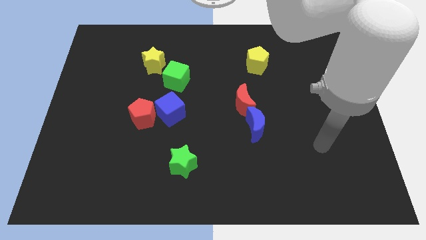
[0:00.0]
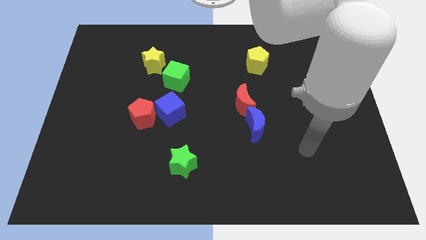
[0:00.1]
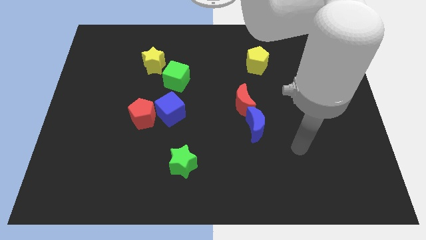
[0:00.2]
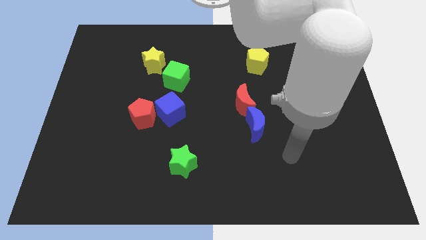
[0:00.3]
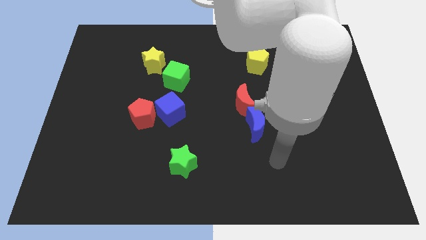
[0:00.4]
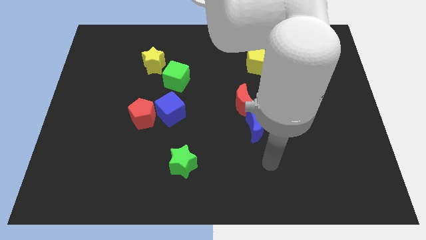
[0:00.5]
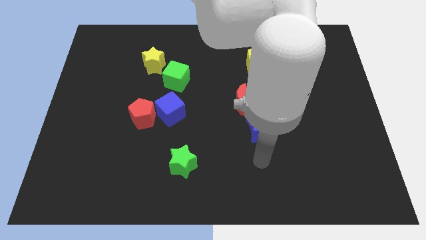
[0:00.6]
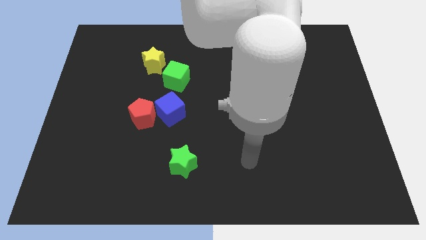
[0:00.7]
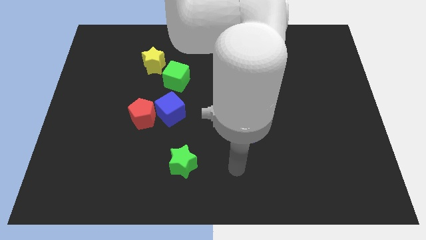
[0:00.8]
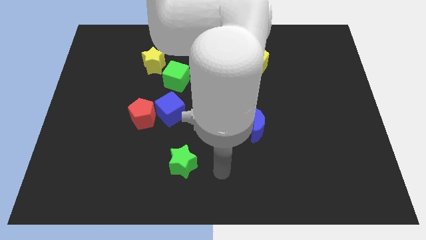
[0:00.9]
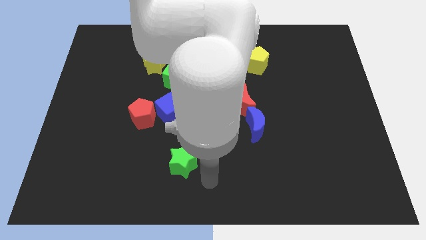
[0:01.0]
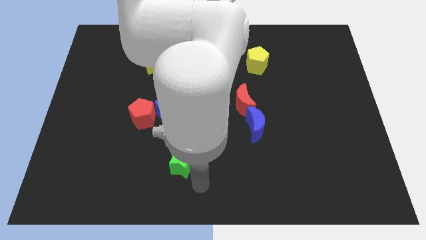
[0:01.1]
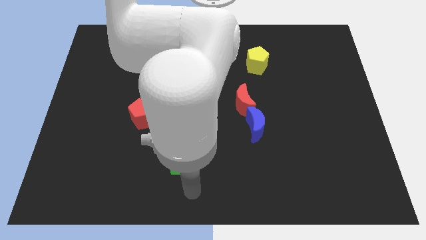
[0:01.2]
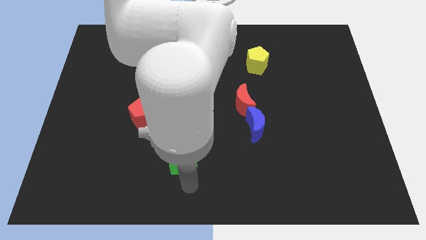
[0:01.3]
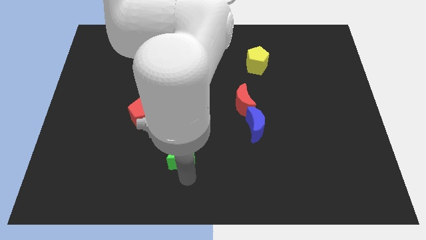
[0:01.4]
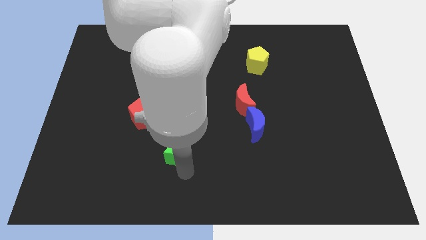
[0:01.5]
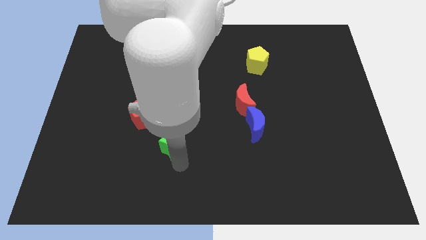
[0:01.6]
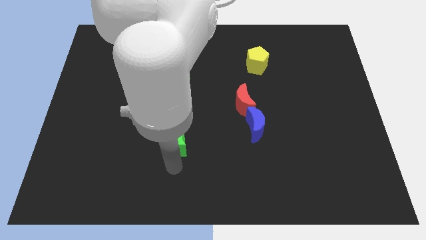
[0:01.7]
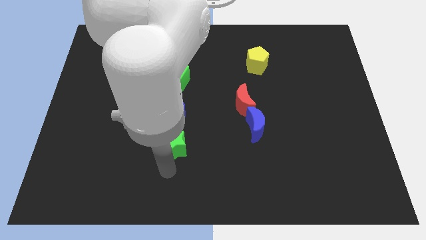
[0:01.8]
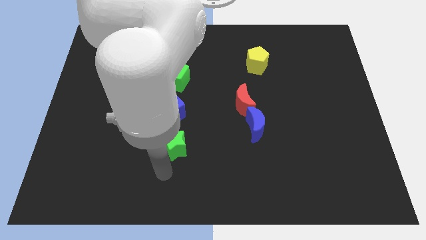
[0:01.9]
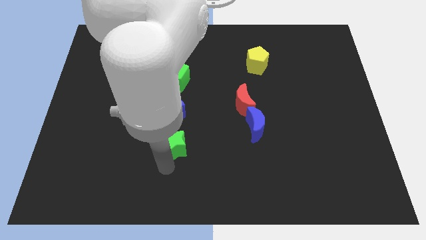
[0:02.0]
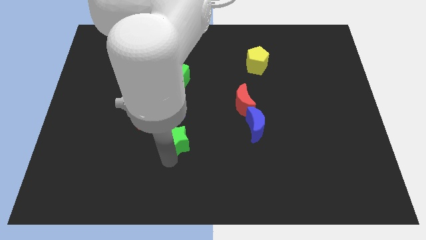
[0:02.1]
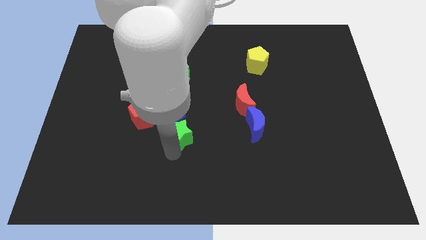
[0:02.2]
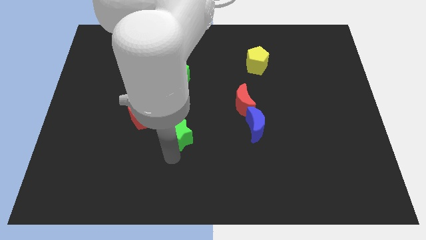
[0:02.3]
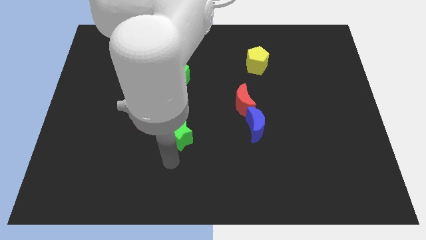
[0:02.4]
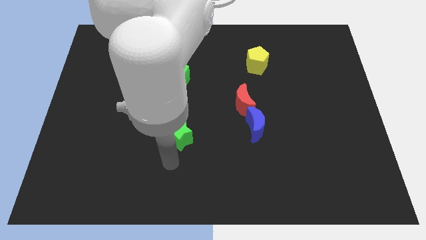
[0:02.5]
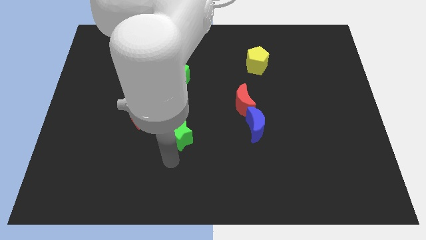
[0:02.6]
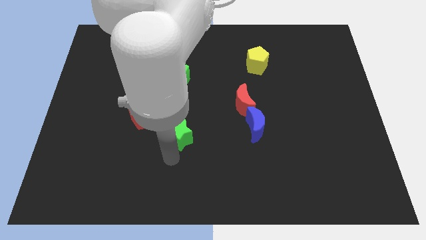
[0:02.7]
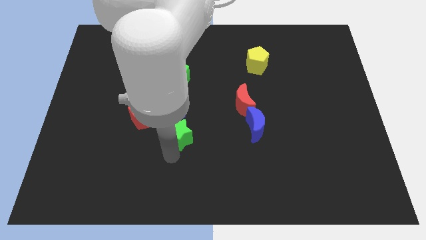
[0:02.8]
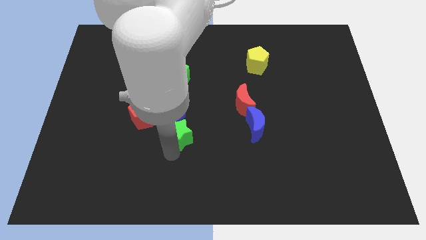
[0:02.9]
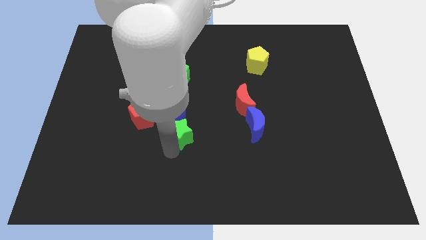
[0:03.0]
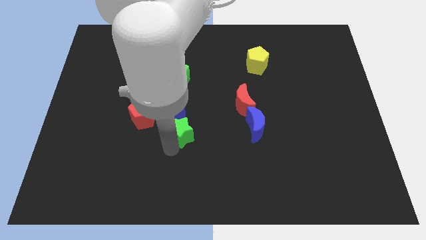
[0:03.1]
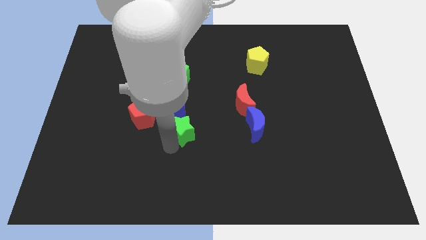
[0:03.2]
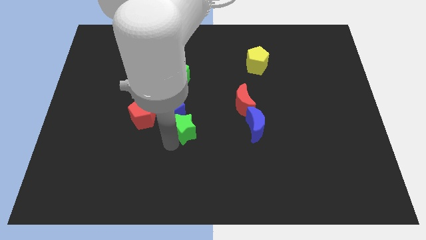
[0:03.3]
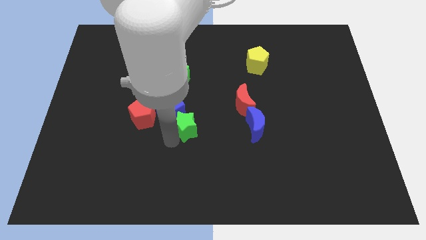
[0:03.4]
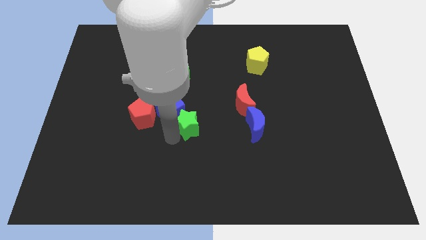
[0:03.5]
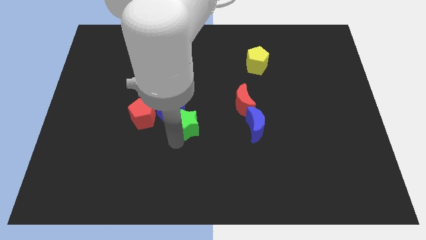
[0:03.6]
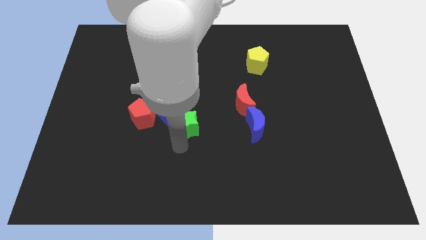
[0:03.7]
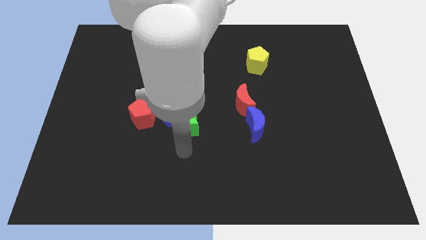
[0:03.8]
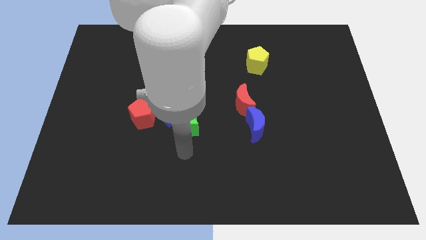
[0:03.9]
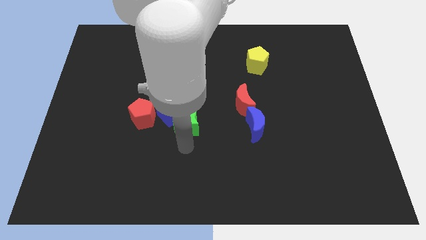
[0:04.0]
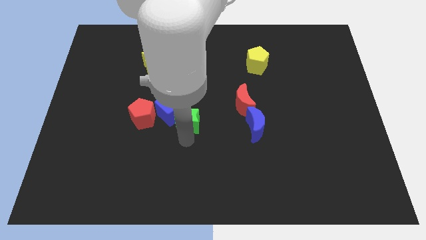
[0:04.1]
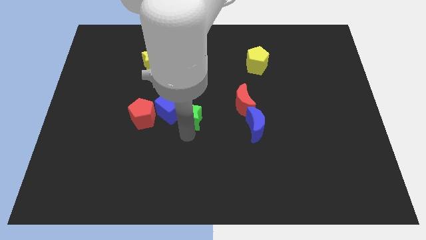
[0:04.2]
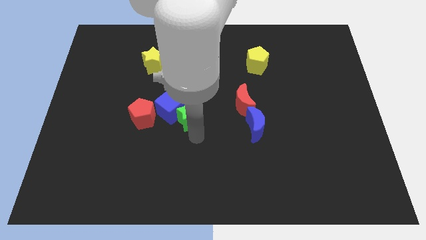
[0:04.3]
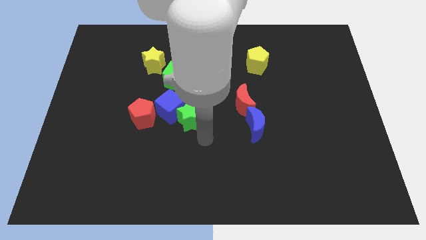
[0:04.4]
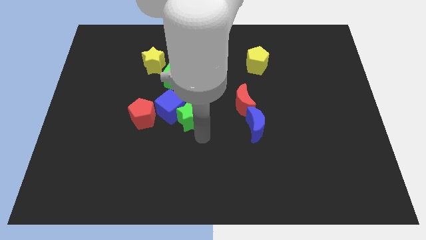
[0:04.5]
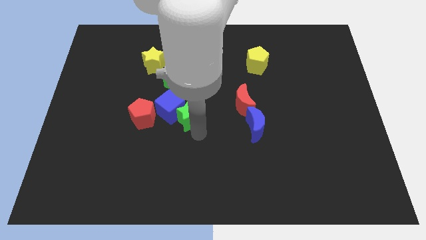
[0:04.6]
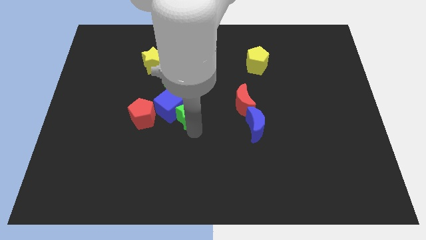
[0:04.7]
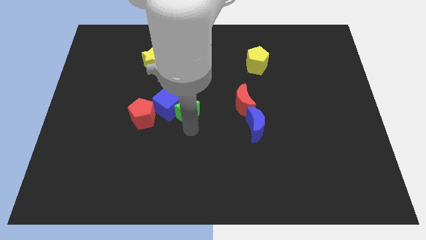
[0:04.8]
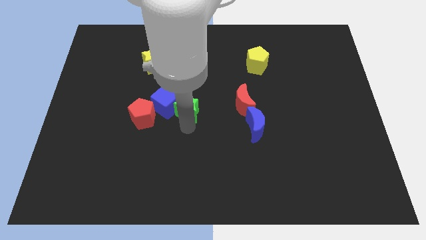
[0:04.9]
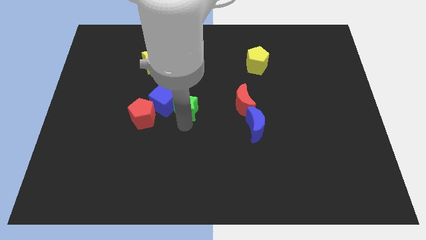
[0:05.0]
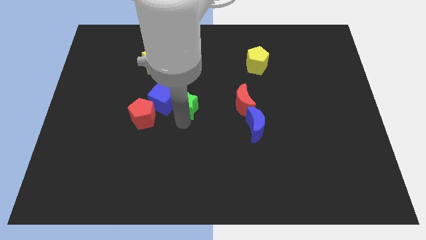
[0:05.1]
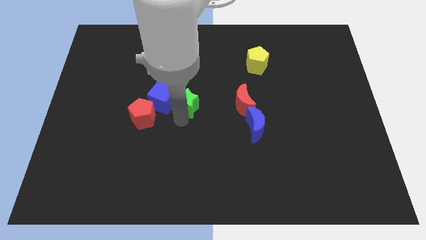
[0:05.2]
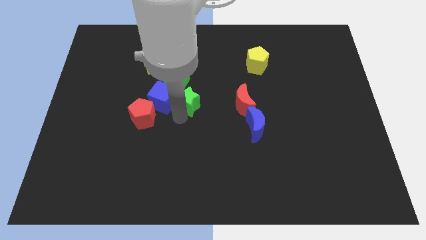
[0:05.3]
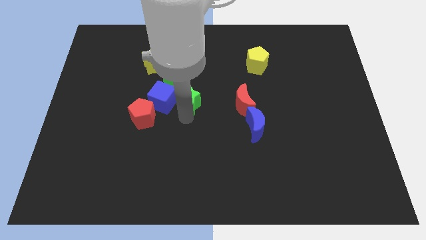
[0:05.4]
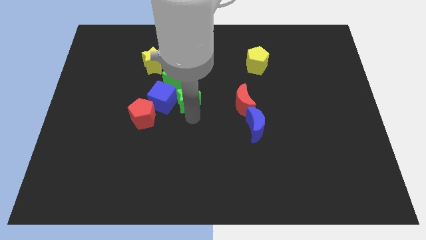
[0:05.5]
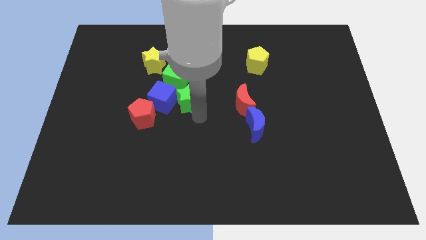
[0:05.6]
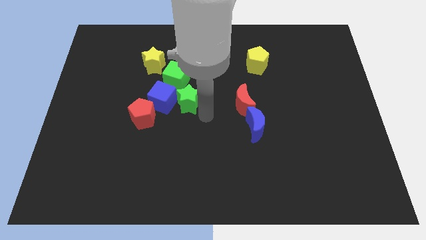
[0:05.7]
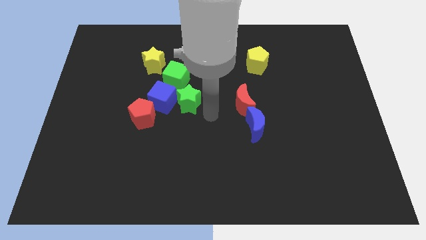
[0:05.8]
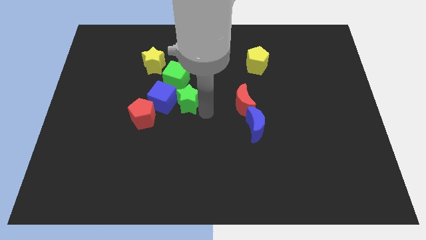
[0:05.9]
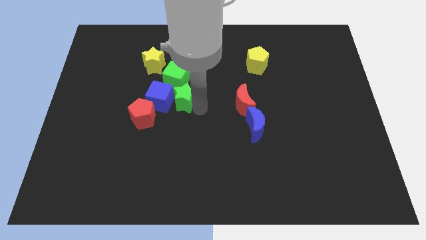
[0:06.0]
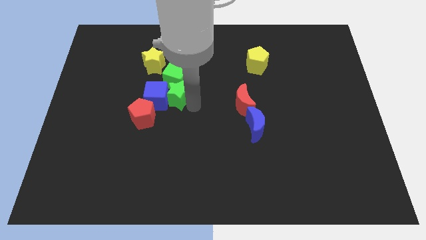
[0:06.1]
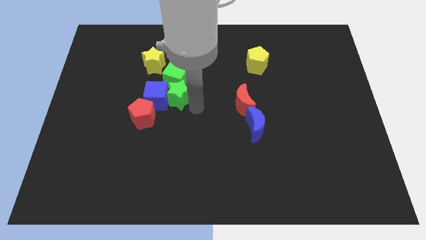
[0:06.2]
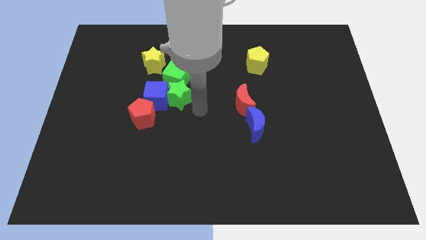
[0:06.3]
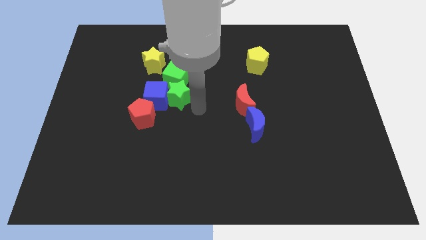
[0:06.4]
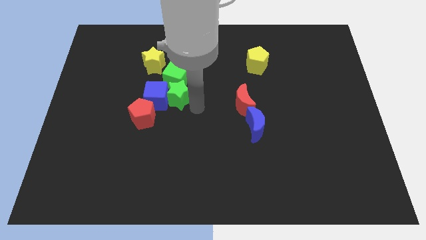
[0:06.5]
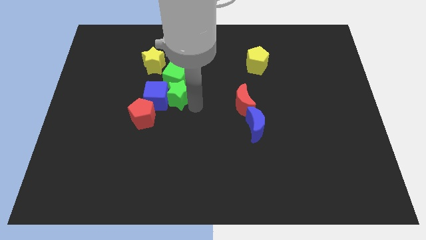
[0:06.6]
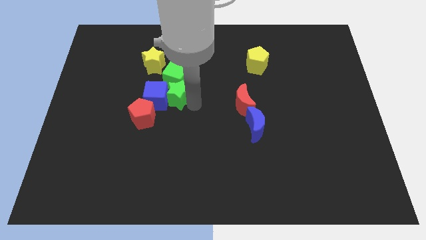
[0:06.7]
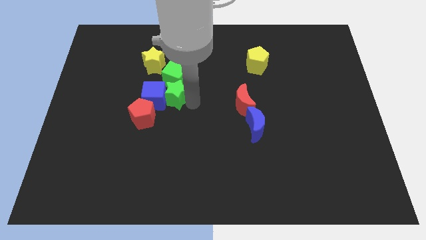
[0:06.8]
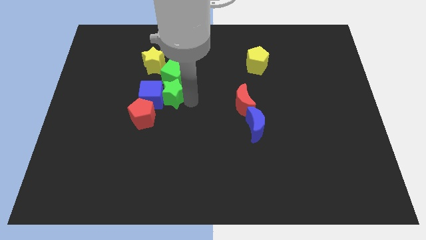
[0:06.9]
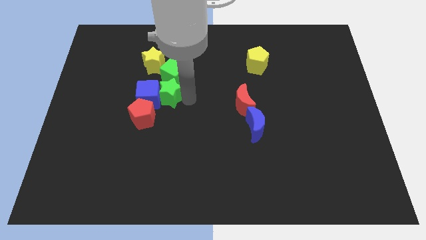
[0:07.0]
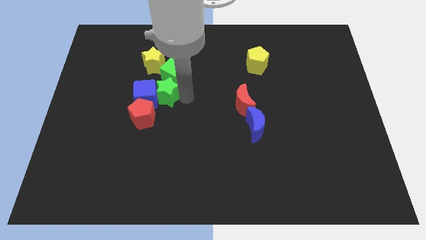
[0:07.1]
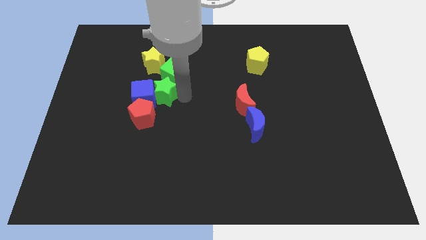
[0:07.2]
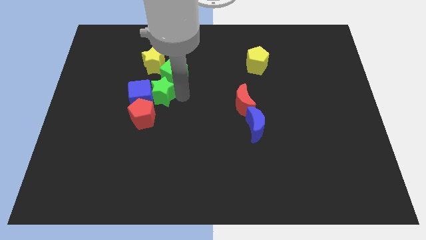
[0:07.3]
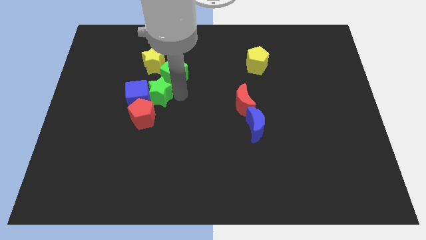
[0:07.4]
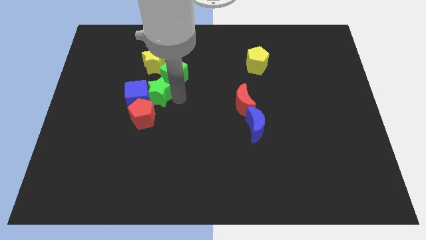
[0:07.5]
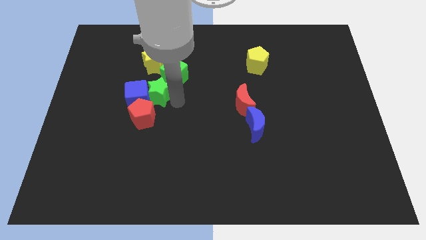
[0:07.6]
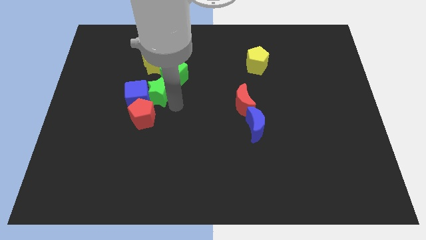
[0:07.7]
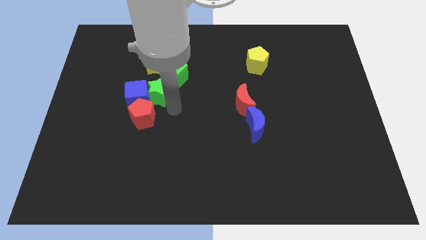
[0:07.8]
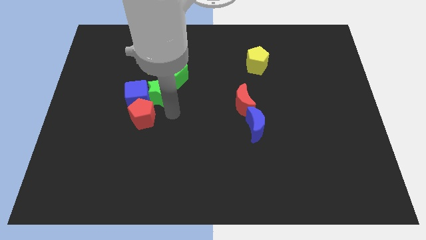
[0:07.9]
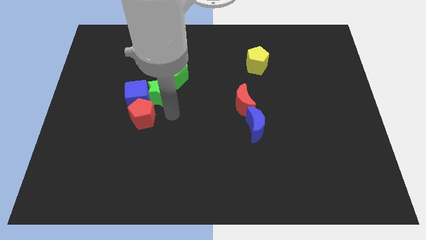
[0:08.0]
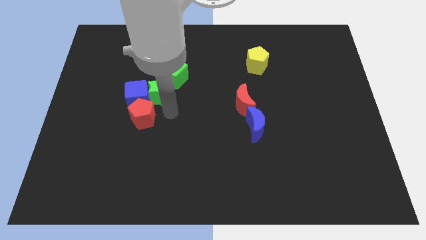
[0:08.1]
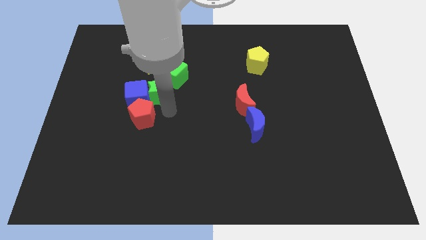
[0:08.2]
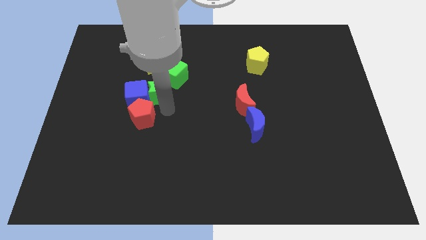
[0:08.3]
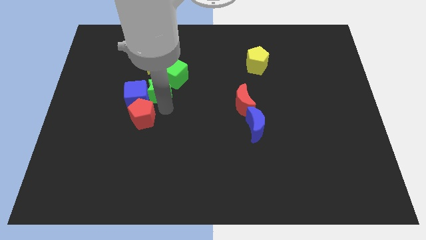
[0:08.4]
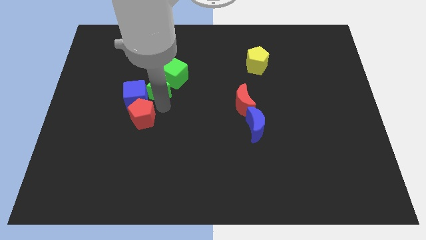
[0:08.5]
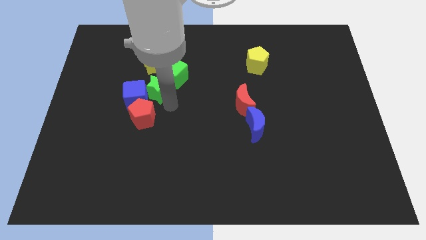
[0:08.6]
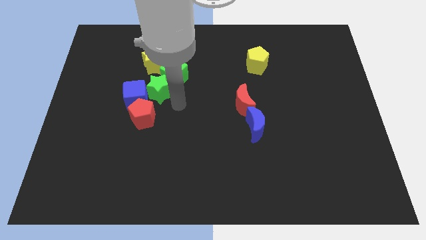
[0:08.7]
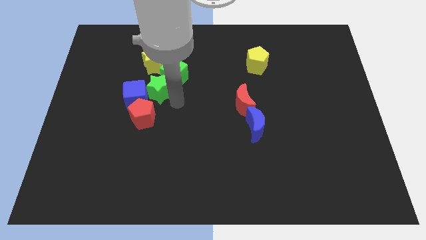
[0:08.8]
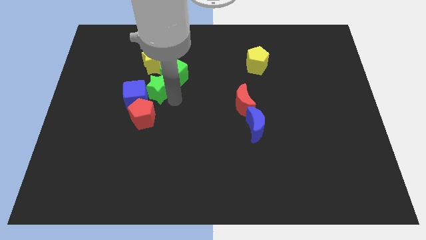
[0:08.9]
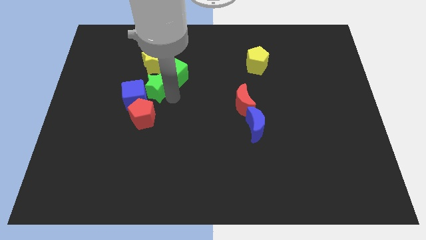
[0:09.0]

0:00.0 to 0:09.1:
put the green star to the left side of the green cube
